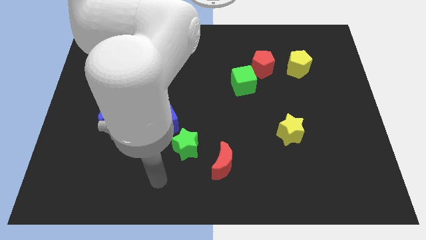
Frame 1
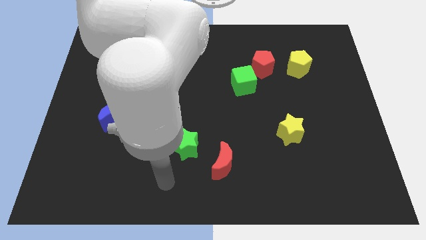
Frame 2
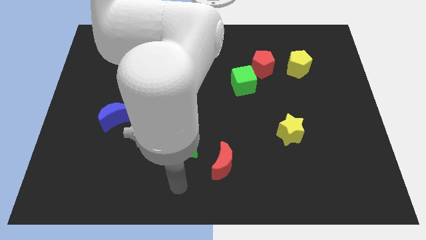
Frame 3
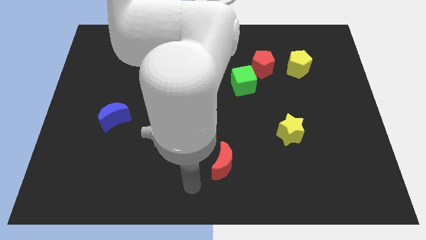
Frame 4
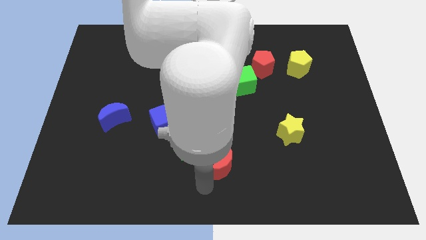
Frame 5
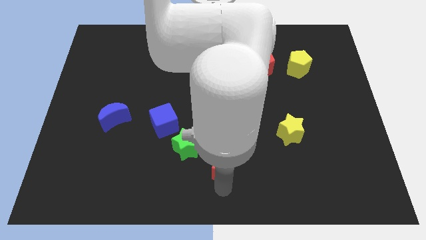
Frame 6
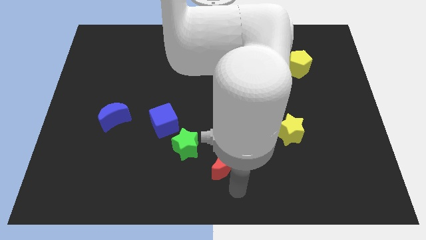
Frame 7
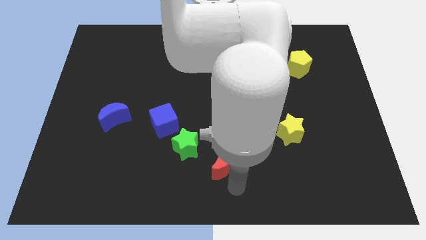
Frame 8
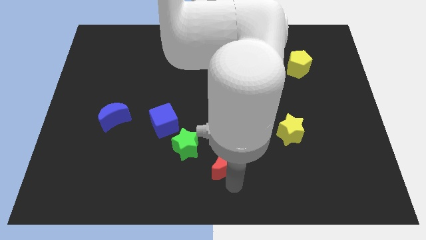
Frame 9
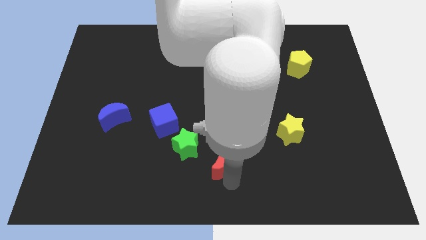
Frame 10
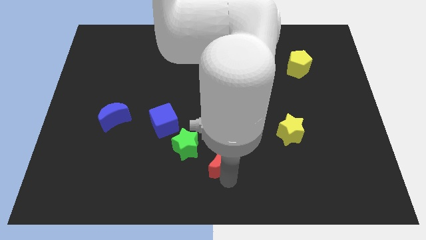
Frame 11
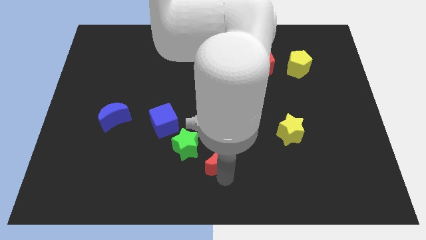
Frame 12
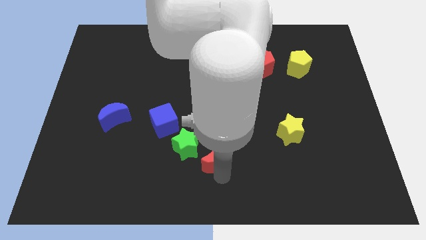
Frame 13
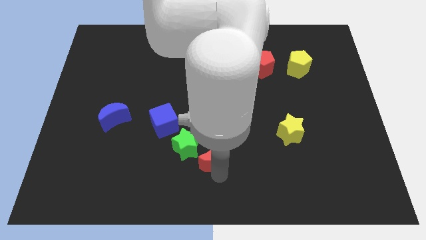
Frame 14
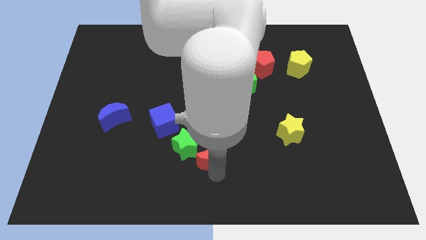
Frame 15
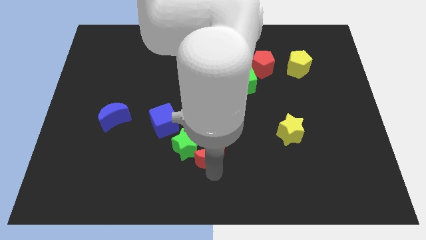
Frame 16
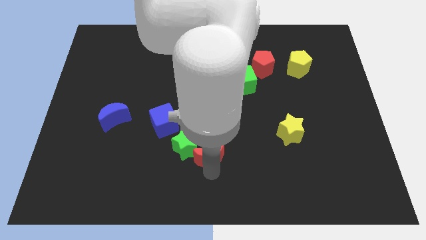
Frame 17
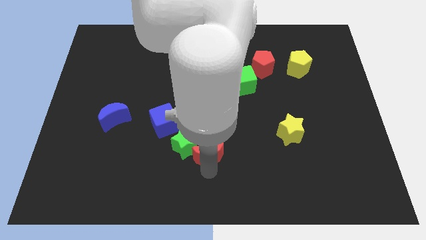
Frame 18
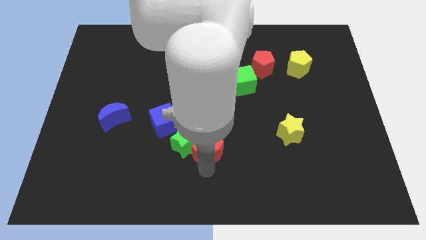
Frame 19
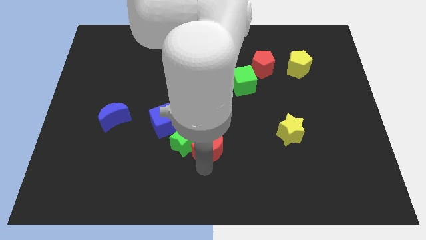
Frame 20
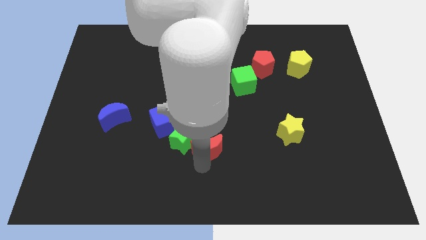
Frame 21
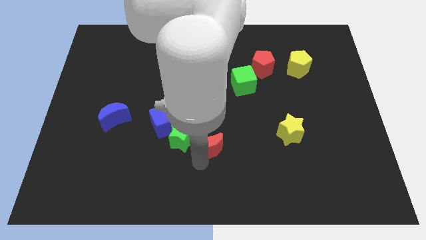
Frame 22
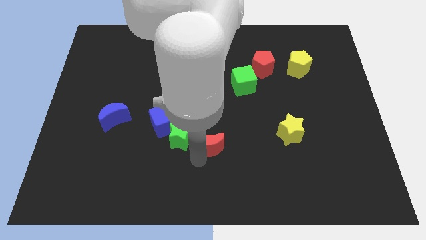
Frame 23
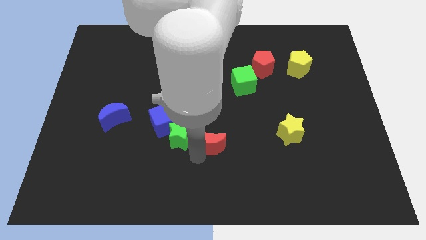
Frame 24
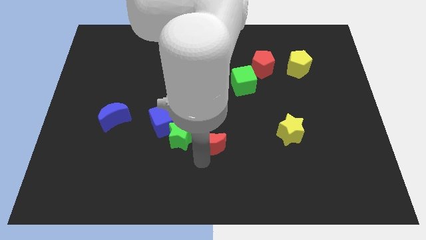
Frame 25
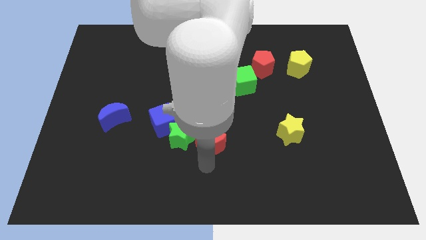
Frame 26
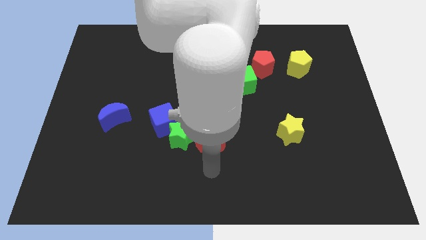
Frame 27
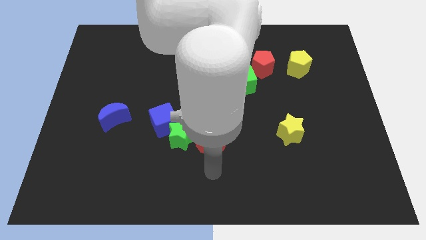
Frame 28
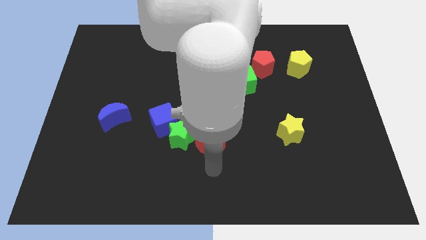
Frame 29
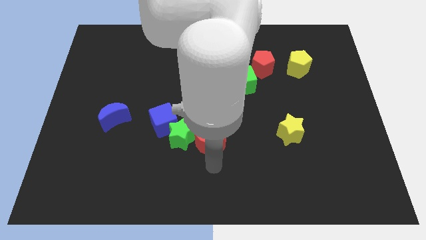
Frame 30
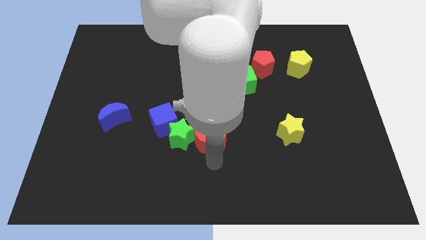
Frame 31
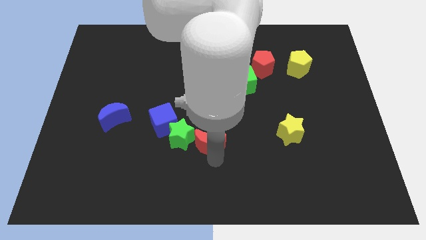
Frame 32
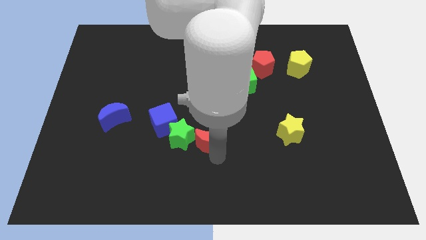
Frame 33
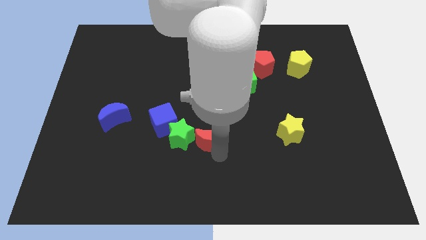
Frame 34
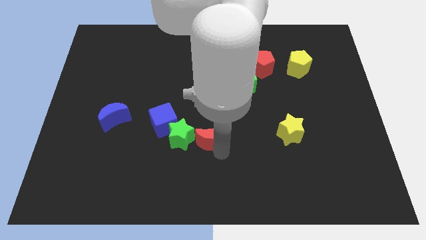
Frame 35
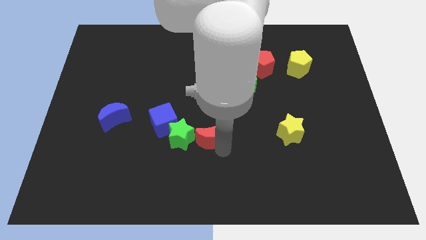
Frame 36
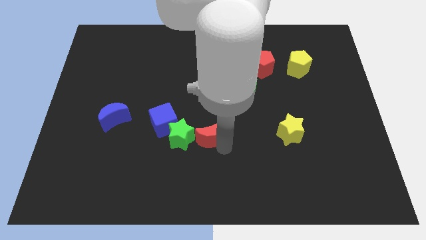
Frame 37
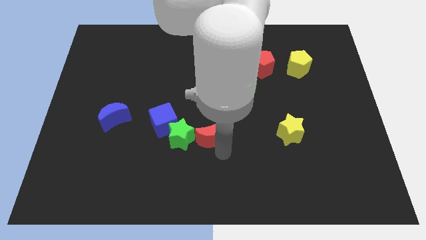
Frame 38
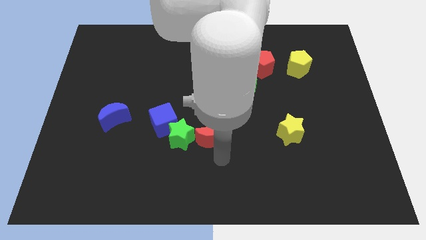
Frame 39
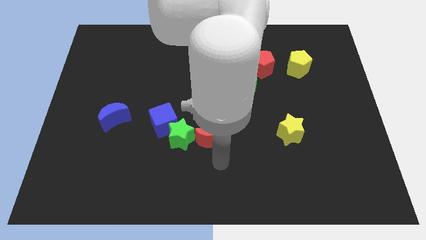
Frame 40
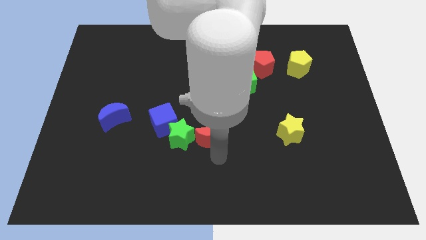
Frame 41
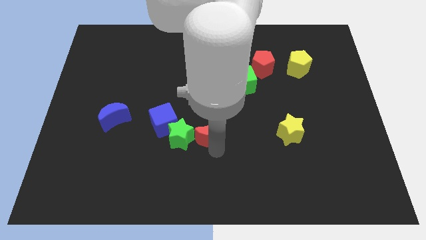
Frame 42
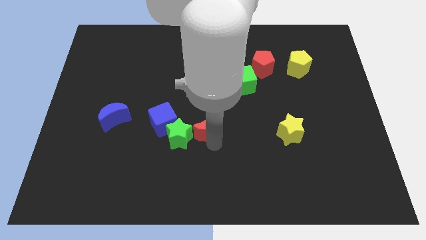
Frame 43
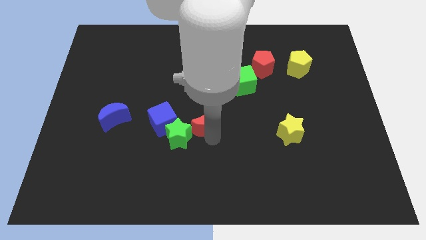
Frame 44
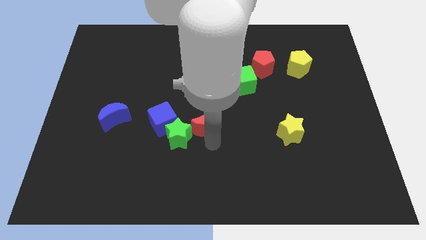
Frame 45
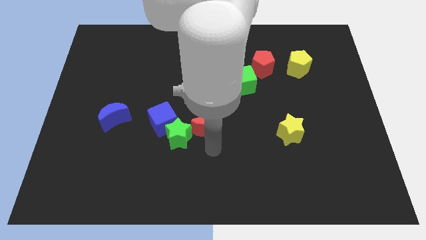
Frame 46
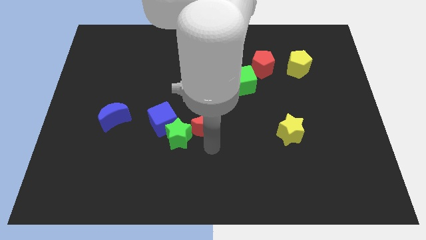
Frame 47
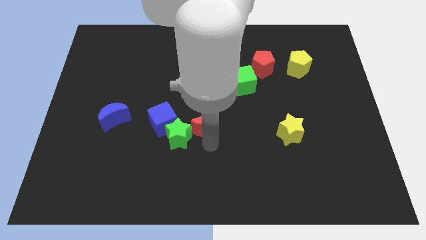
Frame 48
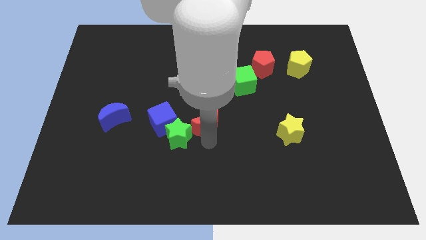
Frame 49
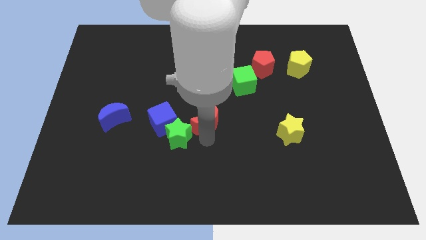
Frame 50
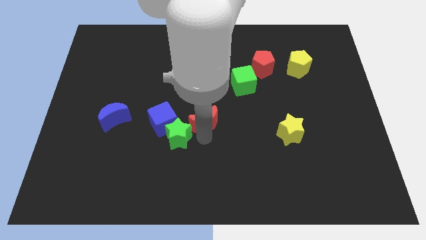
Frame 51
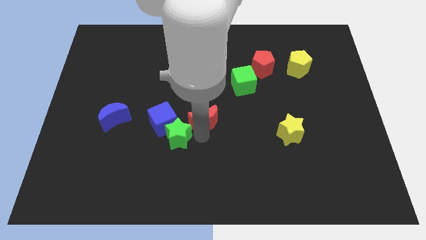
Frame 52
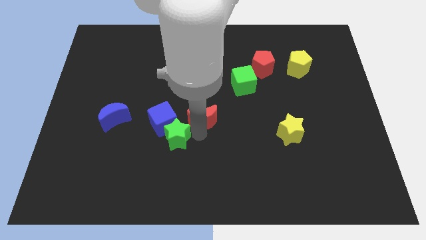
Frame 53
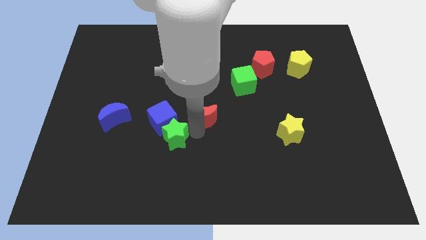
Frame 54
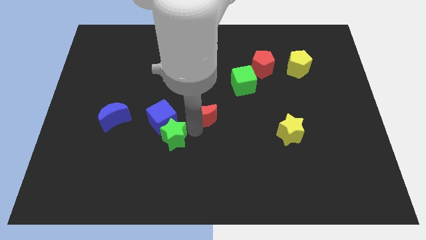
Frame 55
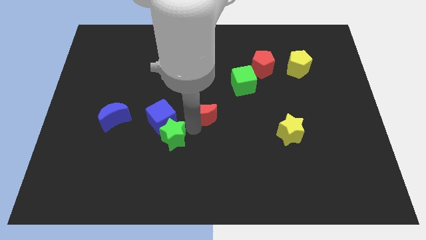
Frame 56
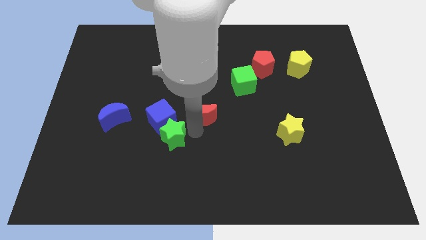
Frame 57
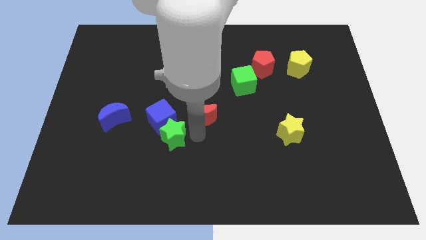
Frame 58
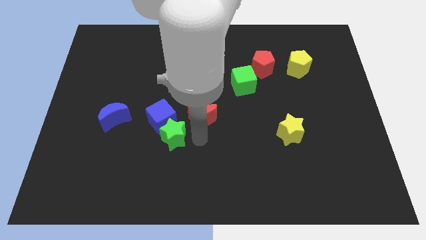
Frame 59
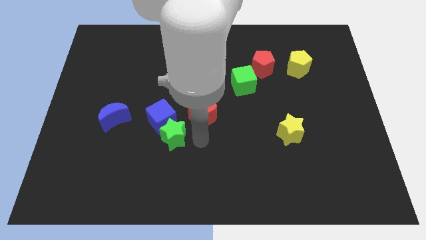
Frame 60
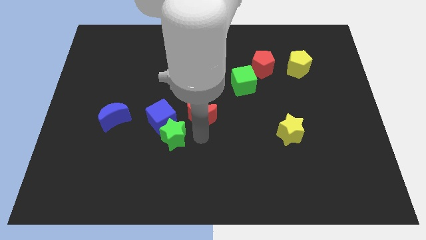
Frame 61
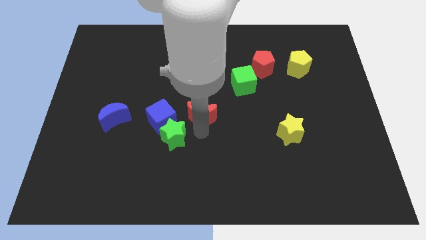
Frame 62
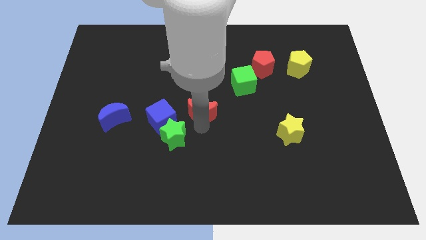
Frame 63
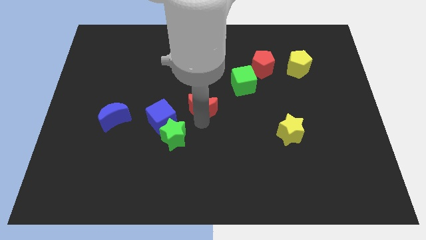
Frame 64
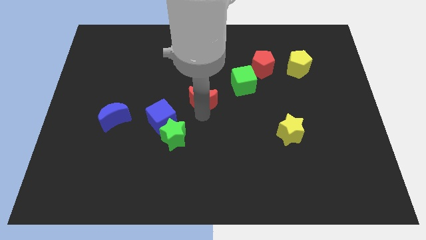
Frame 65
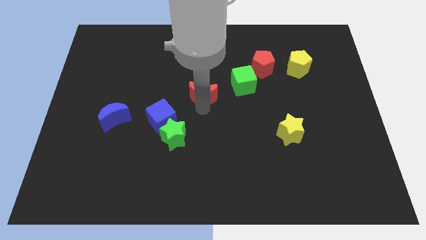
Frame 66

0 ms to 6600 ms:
put the red moon to the left of the green cube
